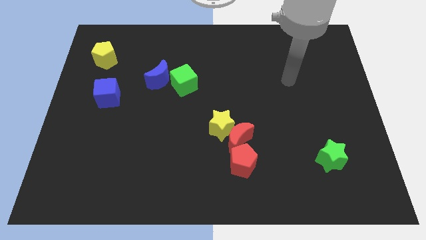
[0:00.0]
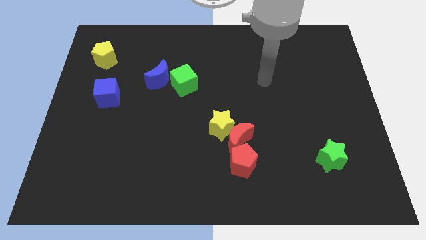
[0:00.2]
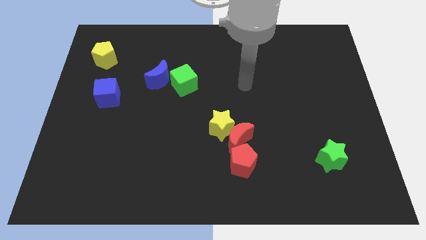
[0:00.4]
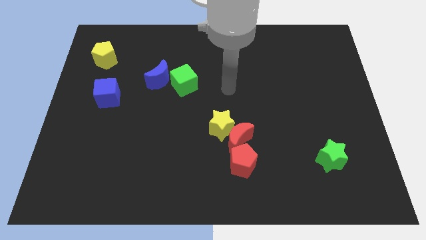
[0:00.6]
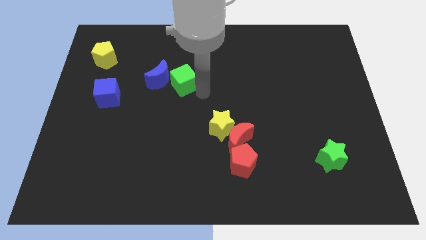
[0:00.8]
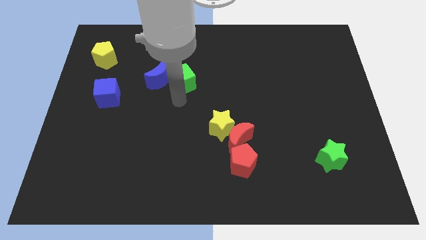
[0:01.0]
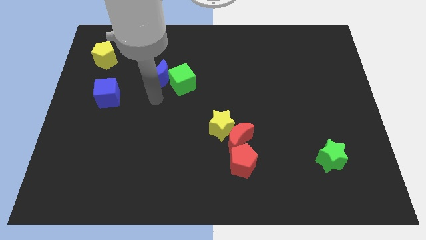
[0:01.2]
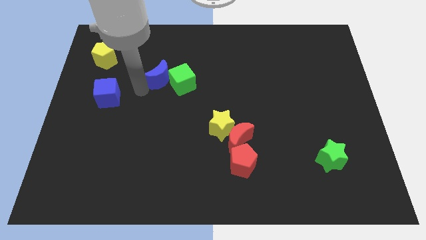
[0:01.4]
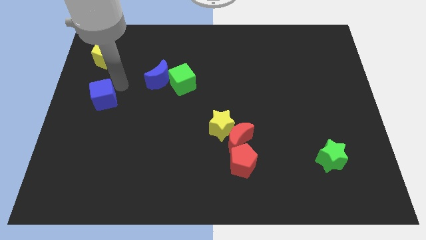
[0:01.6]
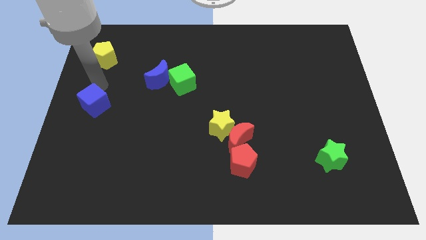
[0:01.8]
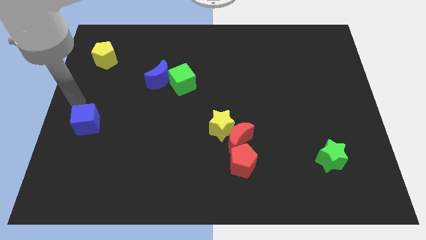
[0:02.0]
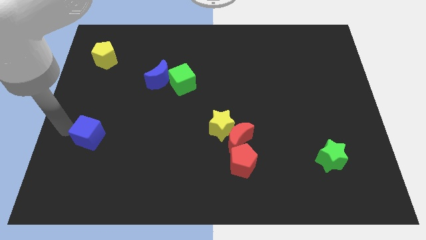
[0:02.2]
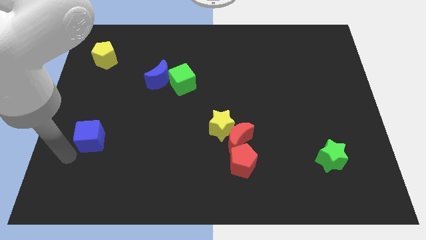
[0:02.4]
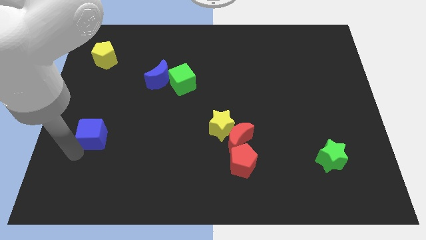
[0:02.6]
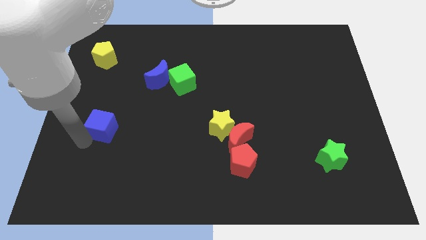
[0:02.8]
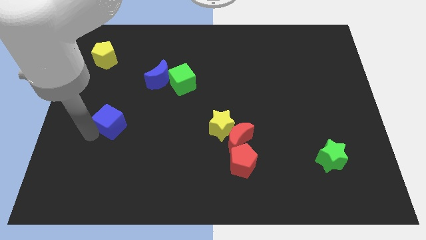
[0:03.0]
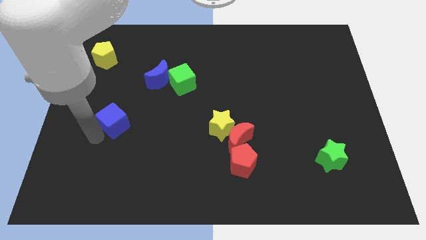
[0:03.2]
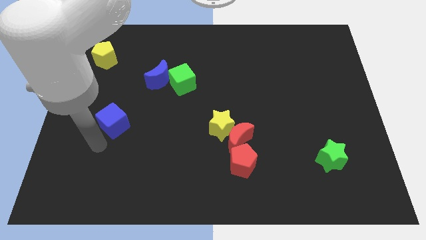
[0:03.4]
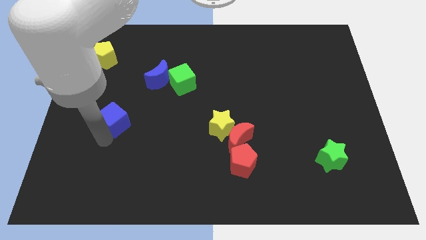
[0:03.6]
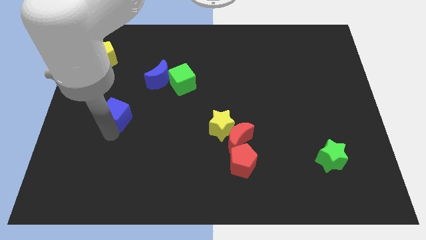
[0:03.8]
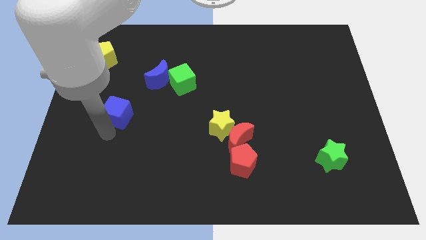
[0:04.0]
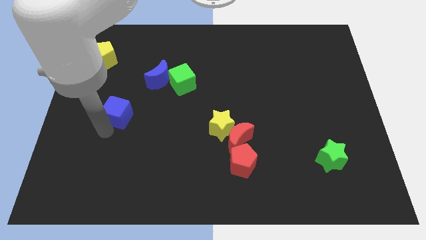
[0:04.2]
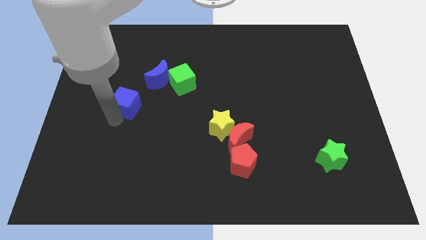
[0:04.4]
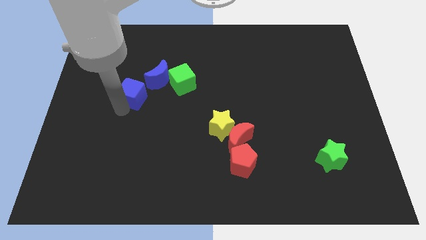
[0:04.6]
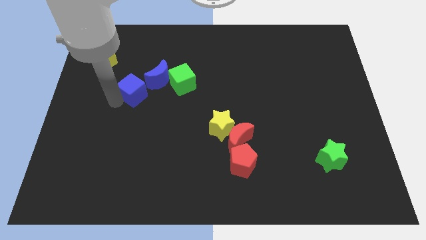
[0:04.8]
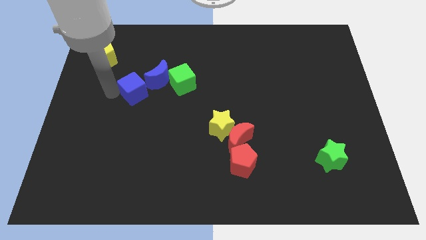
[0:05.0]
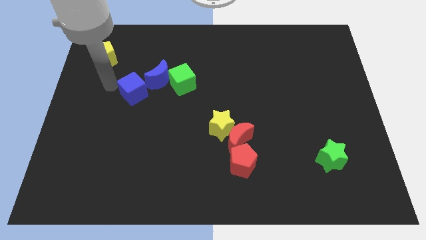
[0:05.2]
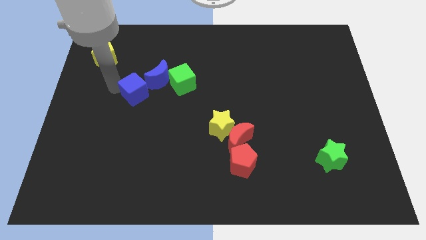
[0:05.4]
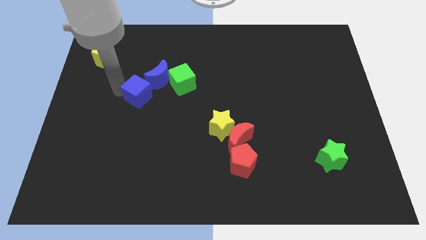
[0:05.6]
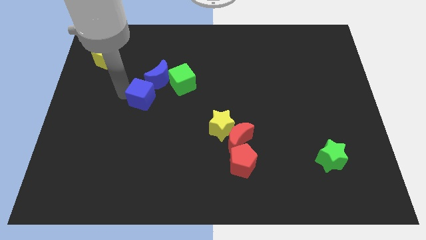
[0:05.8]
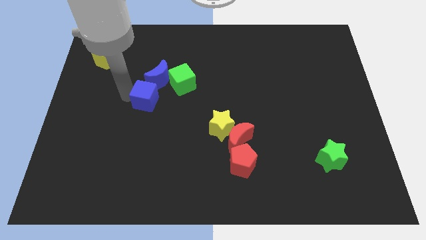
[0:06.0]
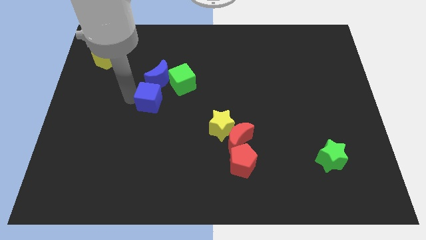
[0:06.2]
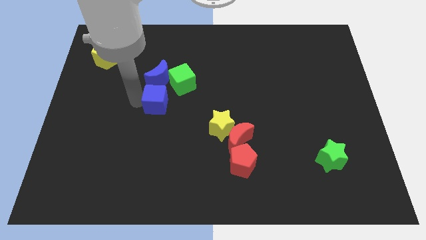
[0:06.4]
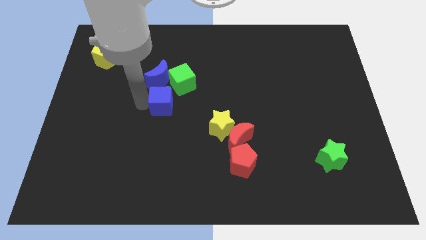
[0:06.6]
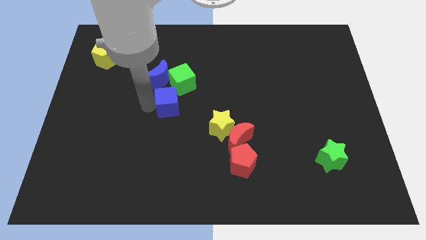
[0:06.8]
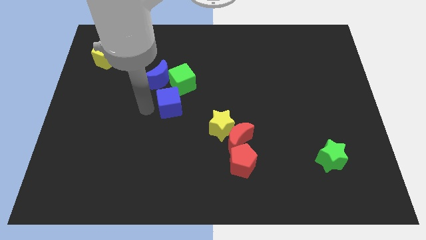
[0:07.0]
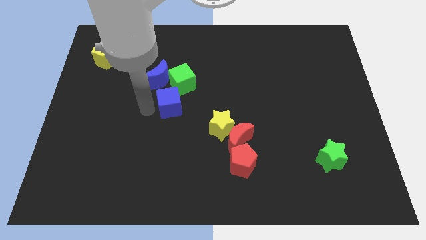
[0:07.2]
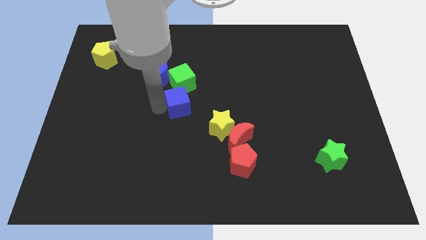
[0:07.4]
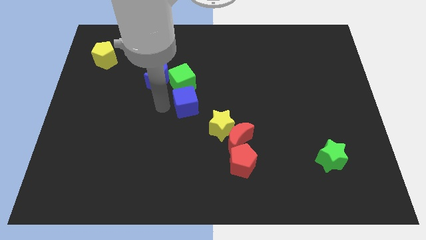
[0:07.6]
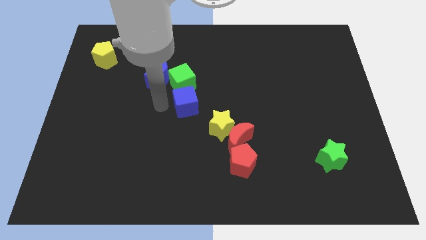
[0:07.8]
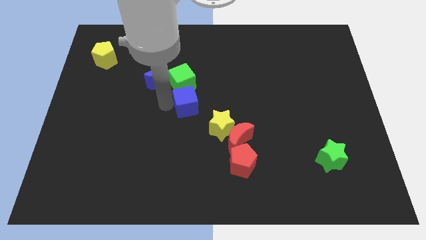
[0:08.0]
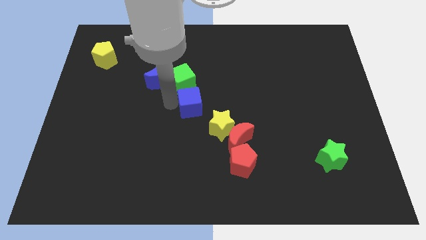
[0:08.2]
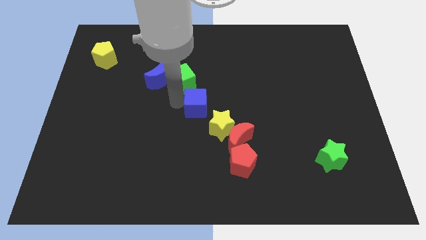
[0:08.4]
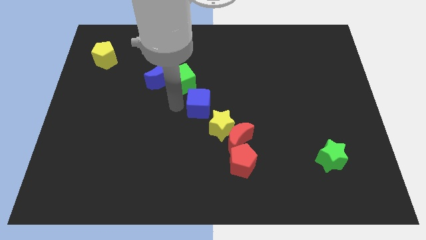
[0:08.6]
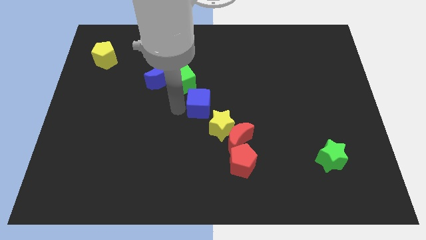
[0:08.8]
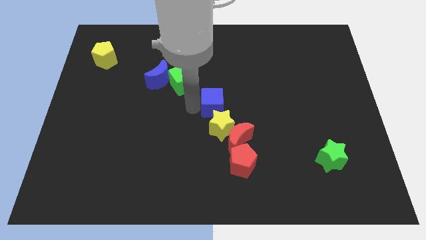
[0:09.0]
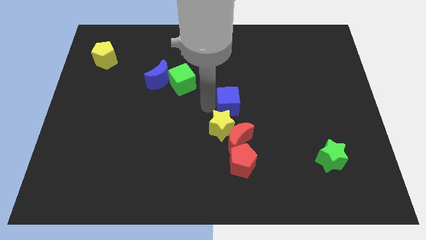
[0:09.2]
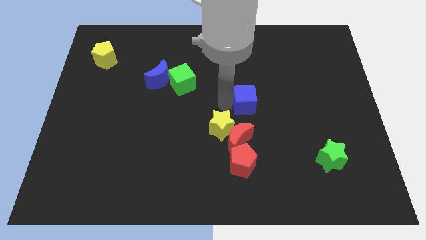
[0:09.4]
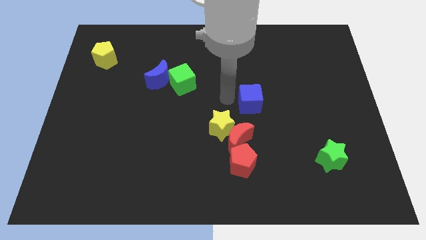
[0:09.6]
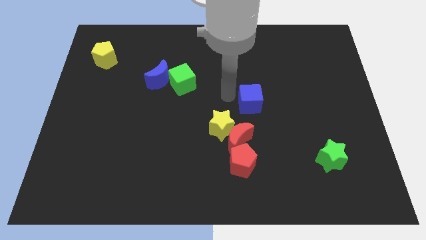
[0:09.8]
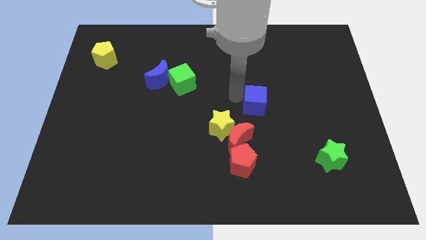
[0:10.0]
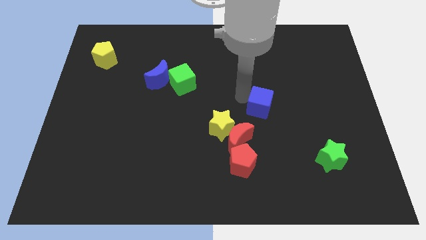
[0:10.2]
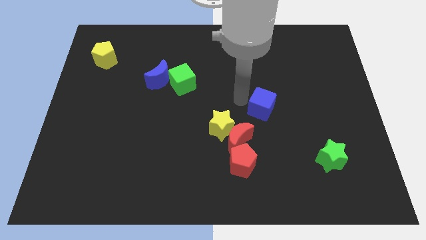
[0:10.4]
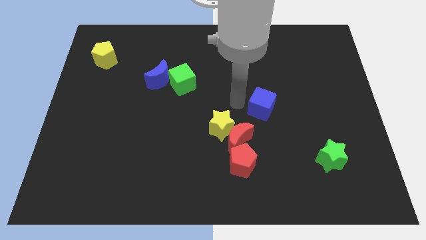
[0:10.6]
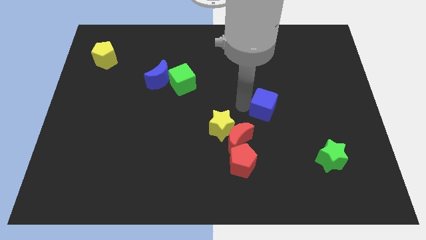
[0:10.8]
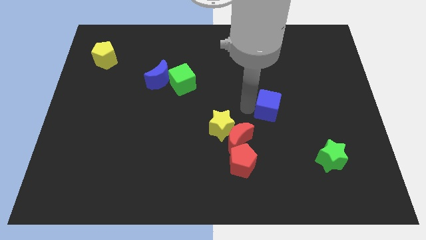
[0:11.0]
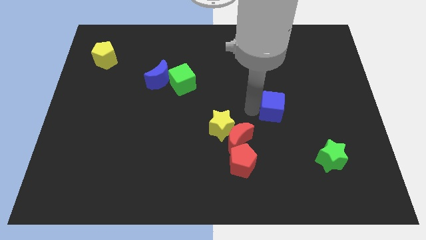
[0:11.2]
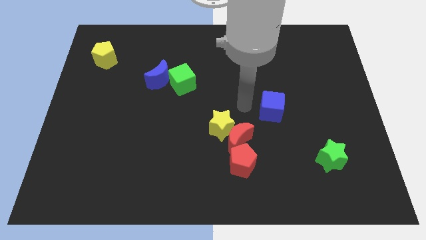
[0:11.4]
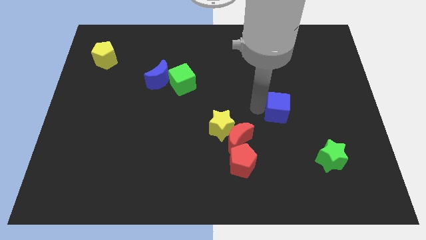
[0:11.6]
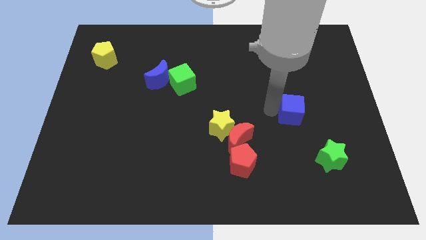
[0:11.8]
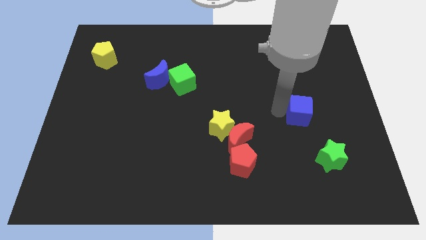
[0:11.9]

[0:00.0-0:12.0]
slide the blue cube above the green star
